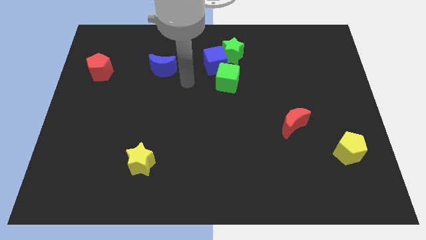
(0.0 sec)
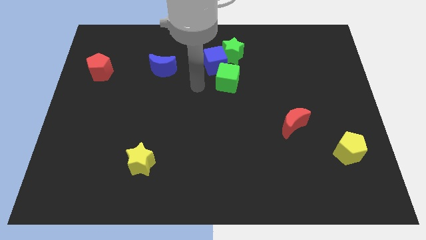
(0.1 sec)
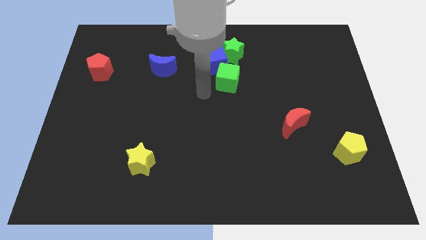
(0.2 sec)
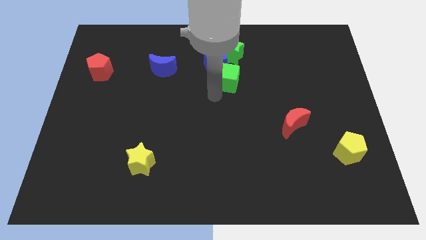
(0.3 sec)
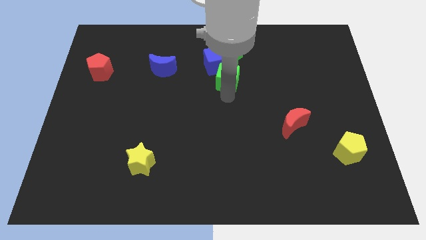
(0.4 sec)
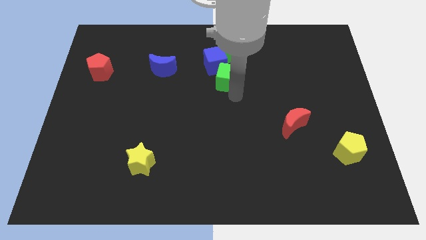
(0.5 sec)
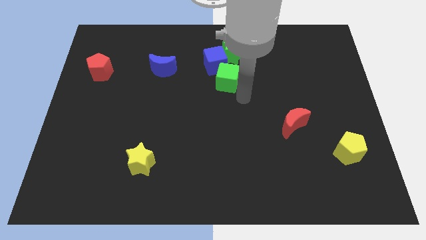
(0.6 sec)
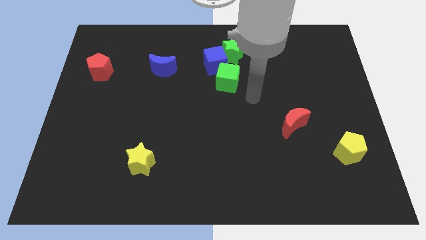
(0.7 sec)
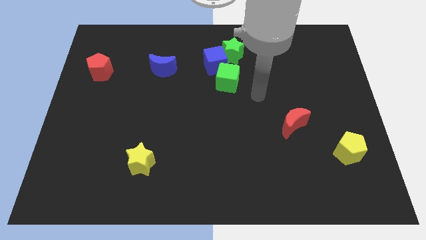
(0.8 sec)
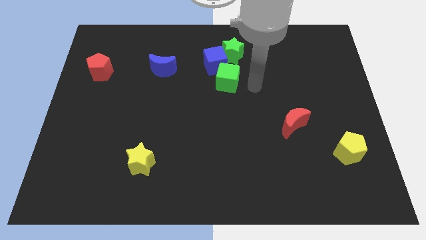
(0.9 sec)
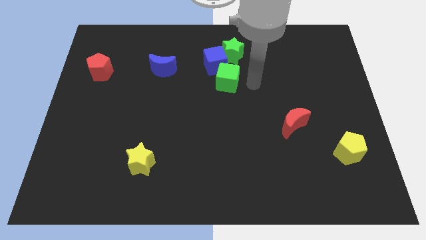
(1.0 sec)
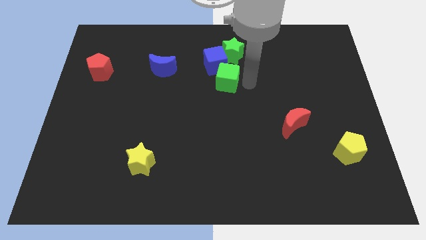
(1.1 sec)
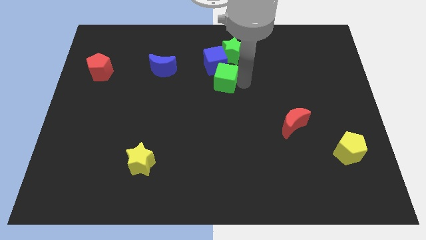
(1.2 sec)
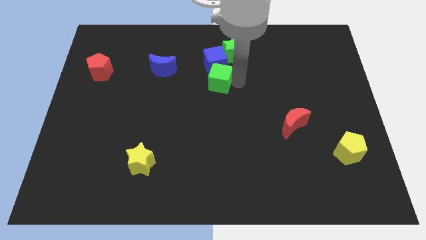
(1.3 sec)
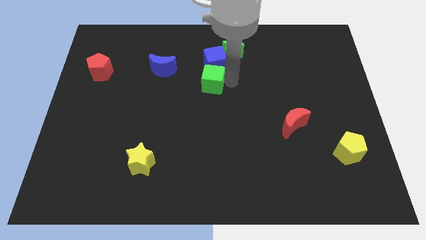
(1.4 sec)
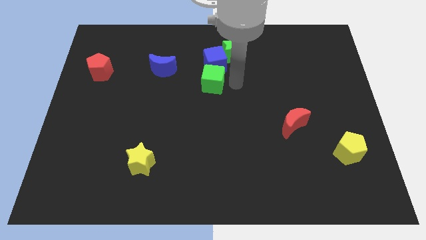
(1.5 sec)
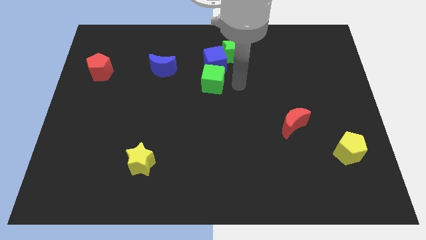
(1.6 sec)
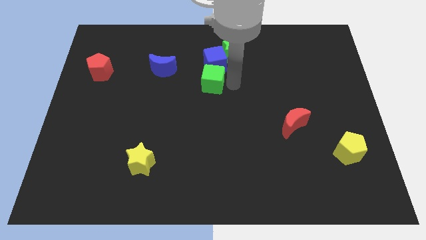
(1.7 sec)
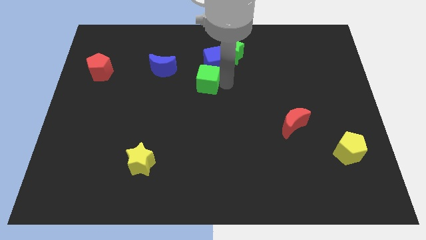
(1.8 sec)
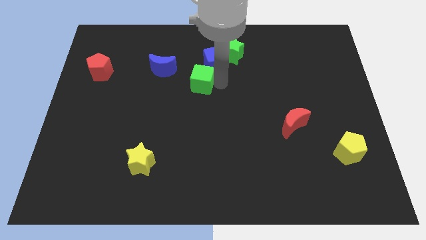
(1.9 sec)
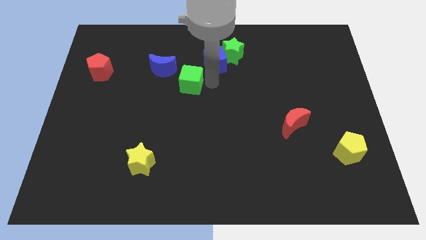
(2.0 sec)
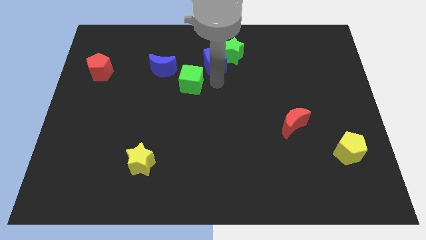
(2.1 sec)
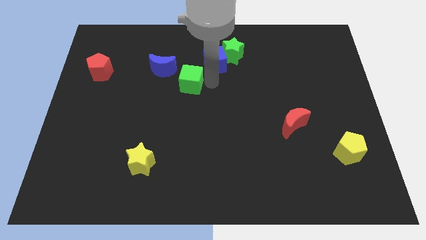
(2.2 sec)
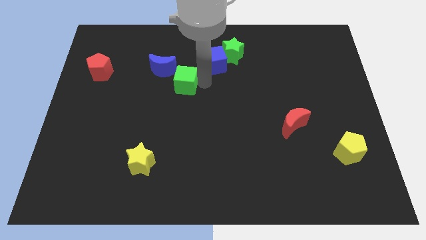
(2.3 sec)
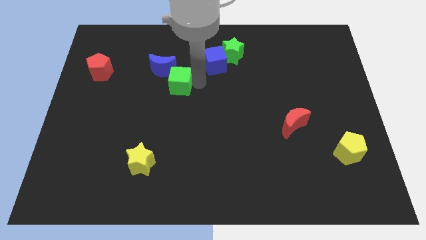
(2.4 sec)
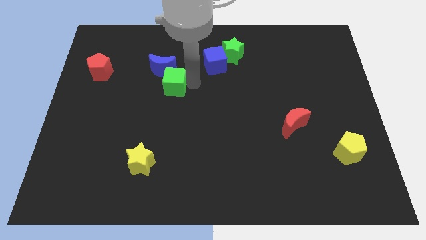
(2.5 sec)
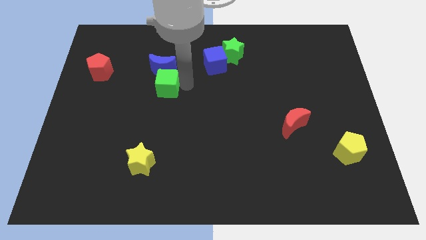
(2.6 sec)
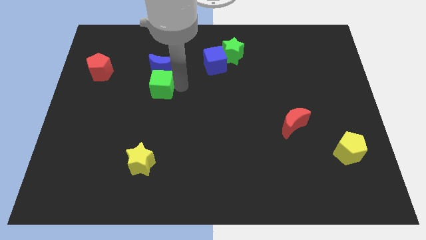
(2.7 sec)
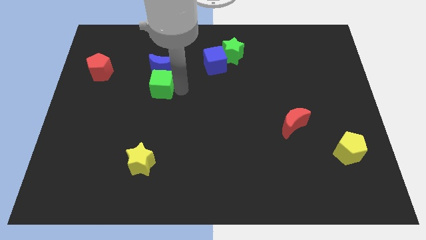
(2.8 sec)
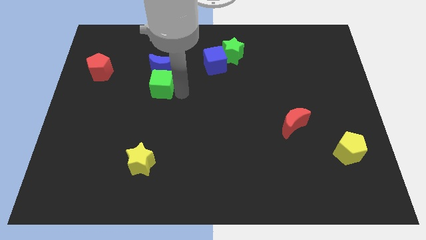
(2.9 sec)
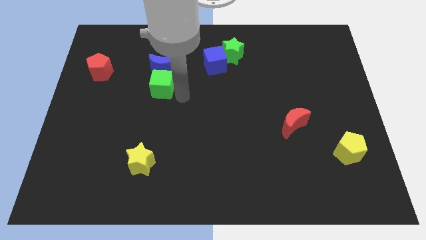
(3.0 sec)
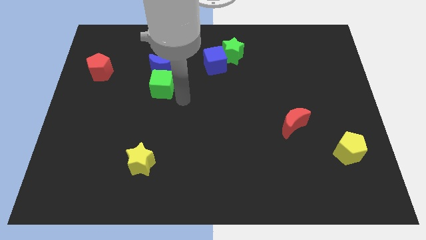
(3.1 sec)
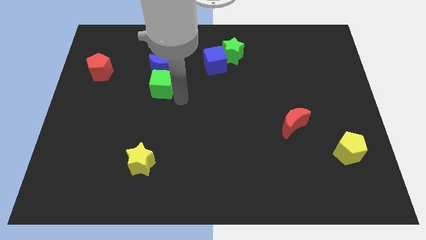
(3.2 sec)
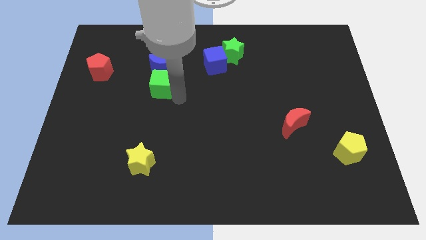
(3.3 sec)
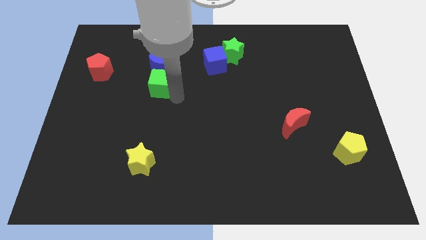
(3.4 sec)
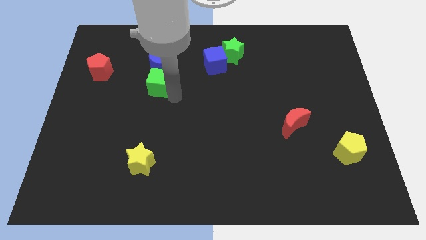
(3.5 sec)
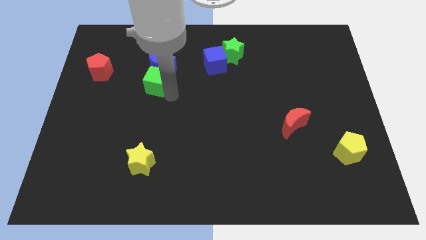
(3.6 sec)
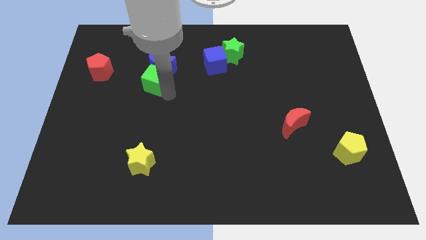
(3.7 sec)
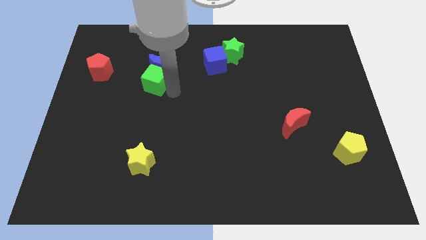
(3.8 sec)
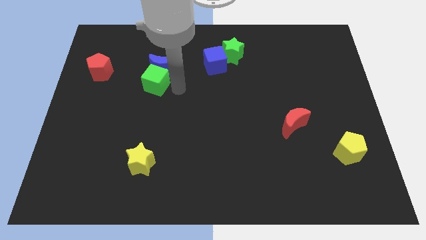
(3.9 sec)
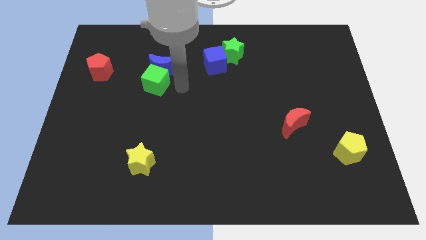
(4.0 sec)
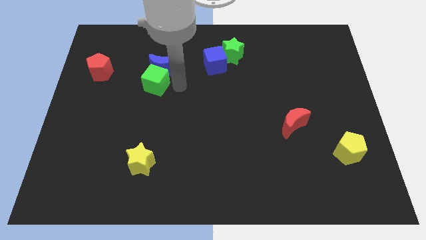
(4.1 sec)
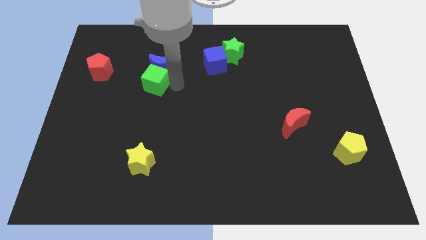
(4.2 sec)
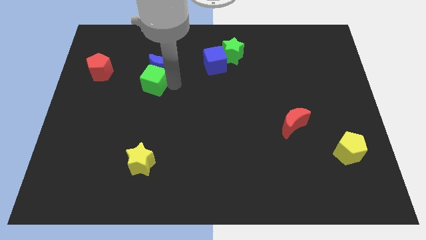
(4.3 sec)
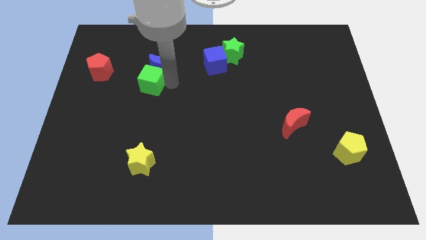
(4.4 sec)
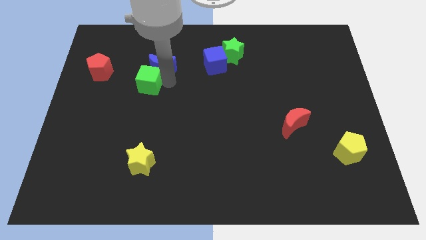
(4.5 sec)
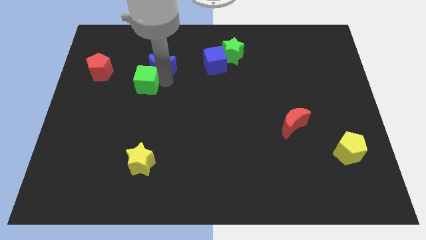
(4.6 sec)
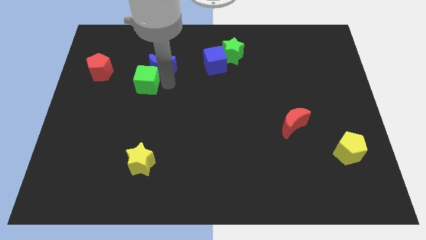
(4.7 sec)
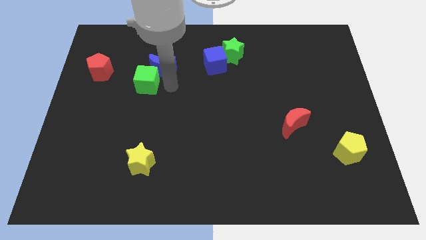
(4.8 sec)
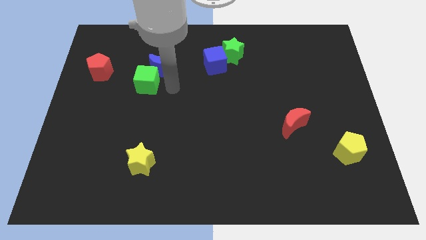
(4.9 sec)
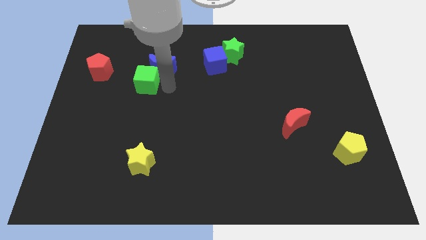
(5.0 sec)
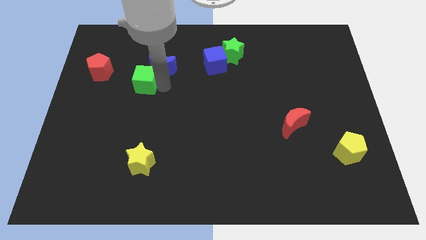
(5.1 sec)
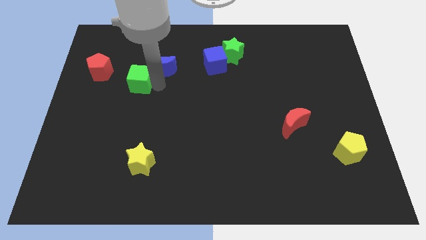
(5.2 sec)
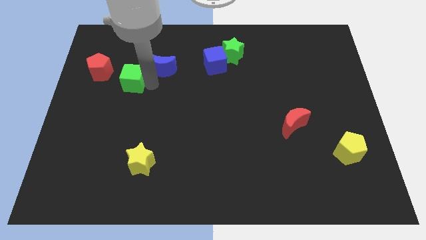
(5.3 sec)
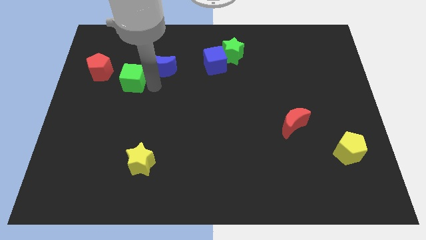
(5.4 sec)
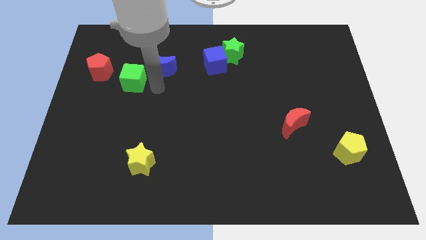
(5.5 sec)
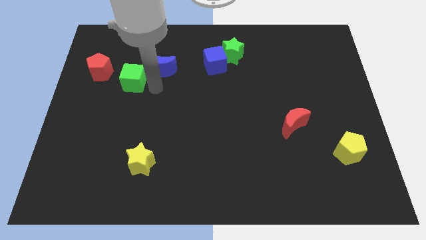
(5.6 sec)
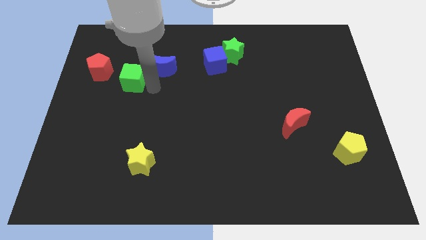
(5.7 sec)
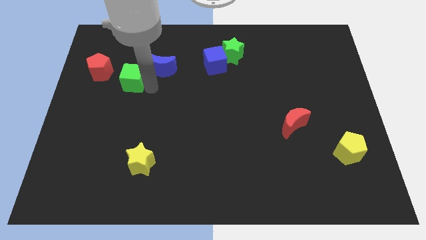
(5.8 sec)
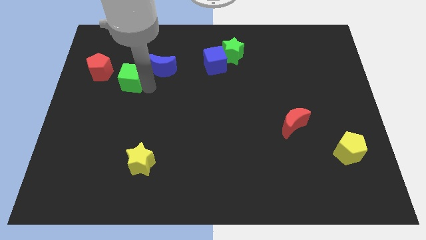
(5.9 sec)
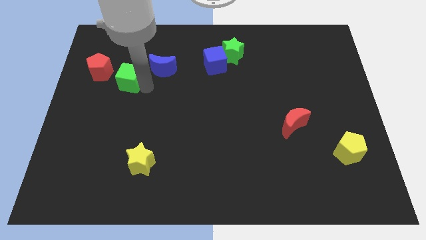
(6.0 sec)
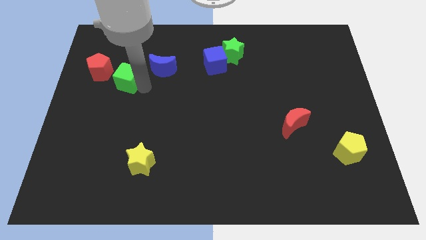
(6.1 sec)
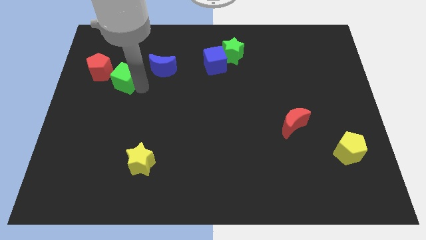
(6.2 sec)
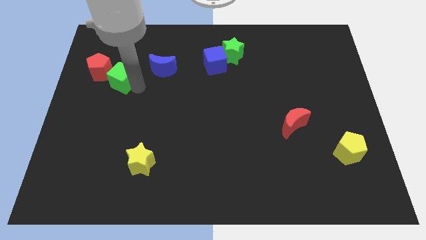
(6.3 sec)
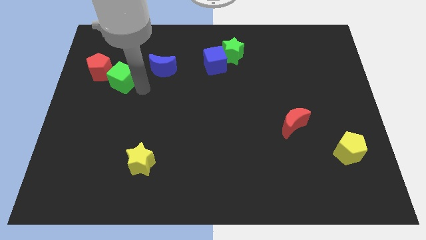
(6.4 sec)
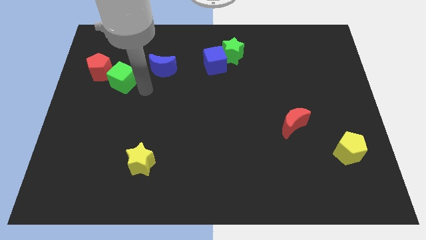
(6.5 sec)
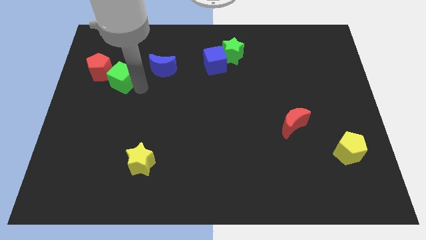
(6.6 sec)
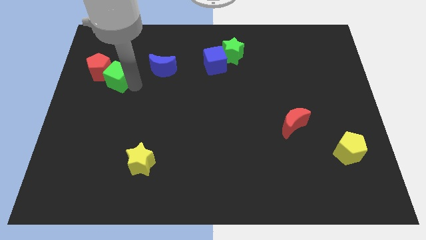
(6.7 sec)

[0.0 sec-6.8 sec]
move the green cube next to the red pentagon
